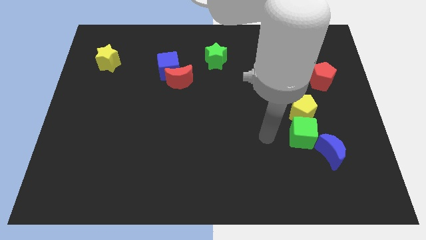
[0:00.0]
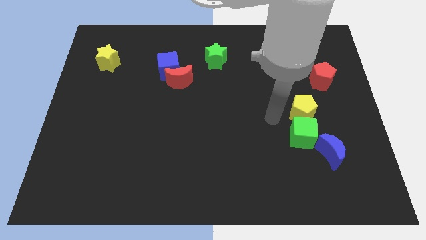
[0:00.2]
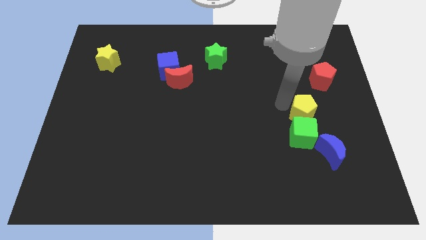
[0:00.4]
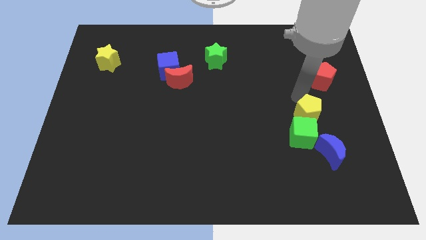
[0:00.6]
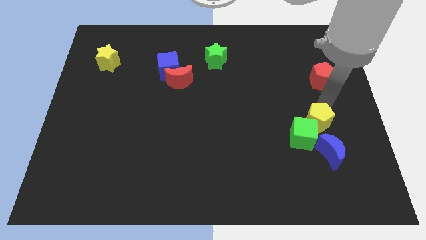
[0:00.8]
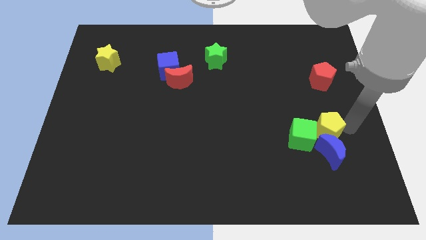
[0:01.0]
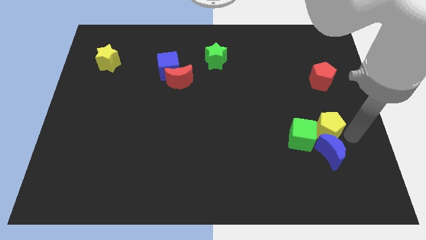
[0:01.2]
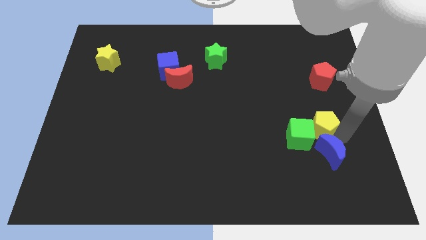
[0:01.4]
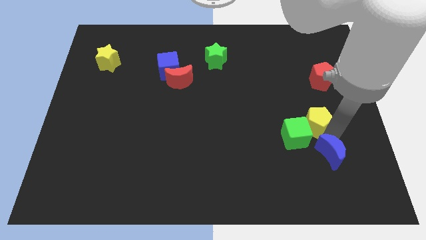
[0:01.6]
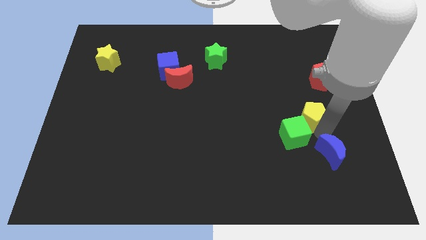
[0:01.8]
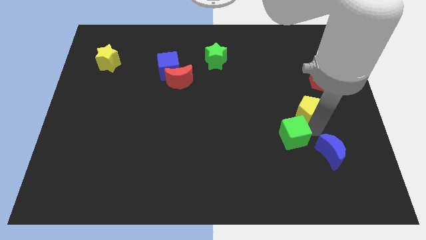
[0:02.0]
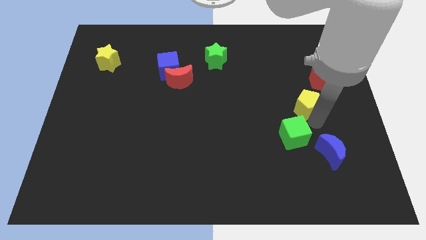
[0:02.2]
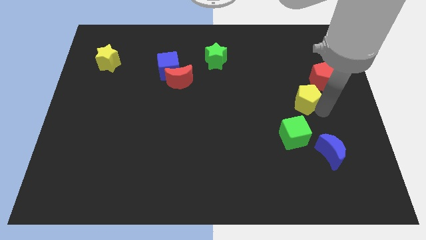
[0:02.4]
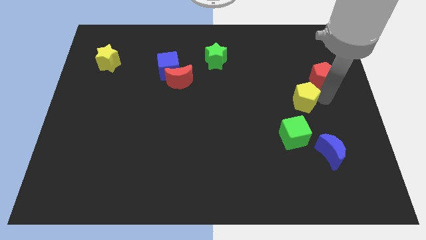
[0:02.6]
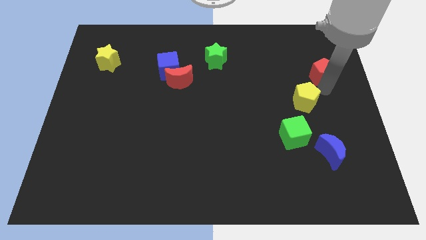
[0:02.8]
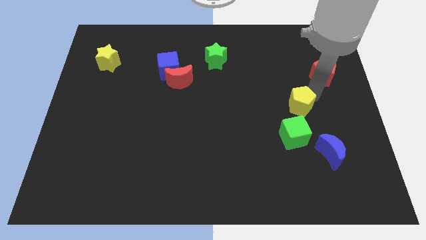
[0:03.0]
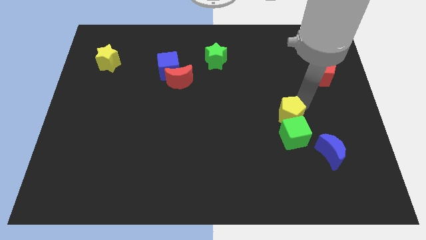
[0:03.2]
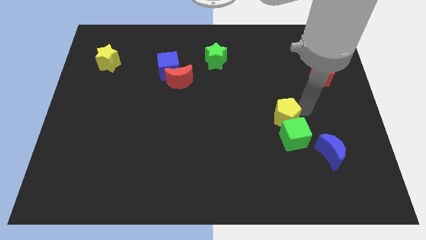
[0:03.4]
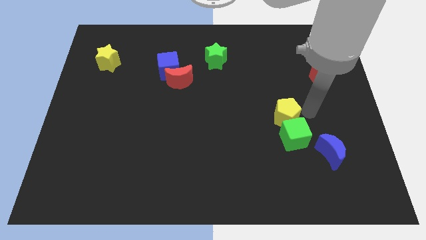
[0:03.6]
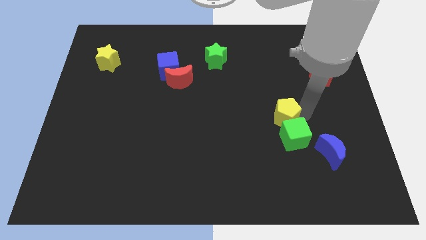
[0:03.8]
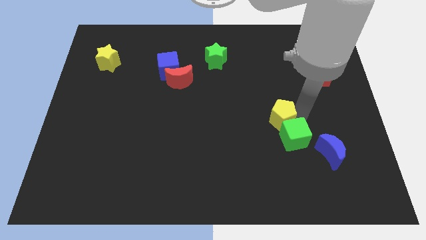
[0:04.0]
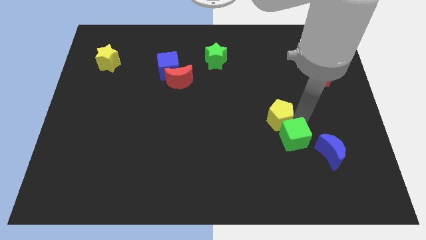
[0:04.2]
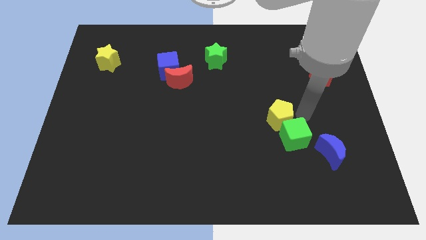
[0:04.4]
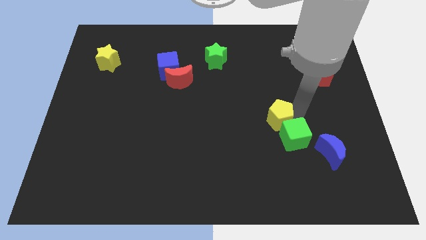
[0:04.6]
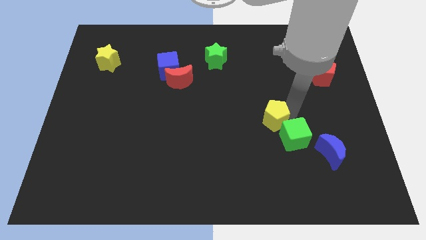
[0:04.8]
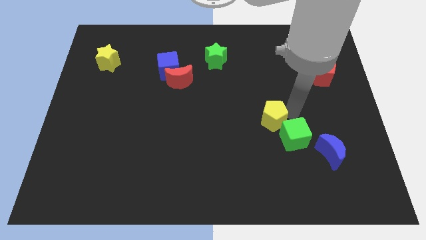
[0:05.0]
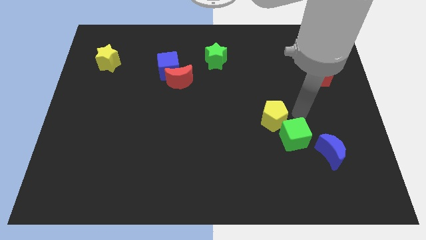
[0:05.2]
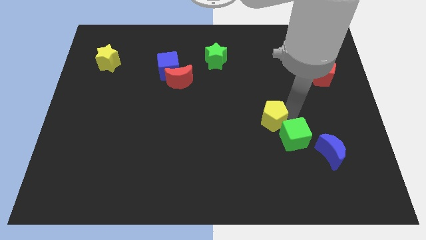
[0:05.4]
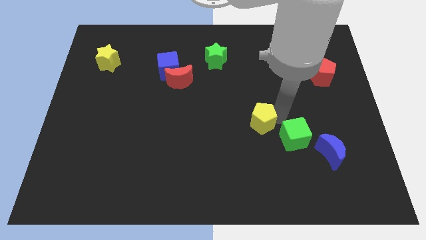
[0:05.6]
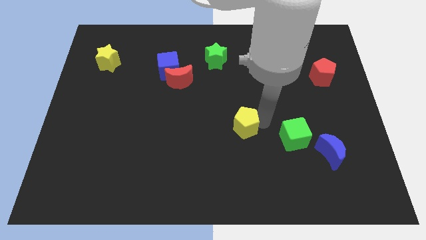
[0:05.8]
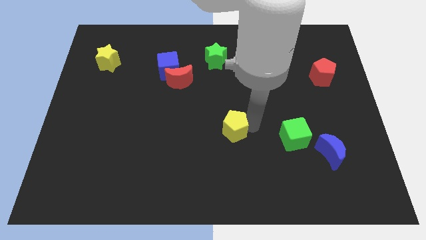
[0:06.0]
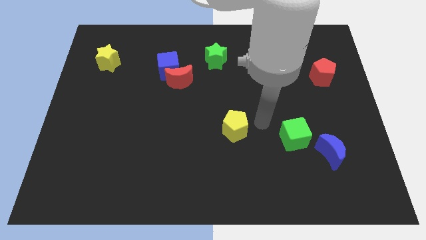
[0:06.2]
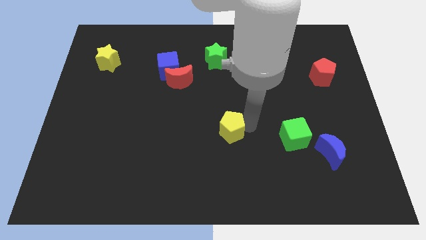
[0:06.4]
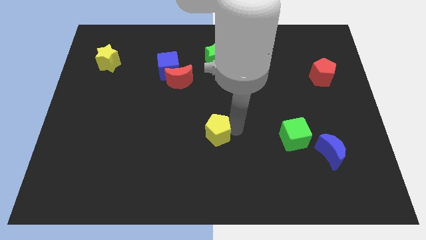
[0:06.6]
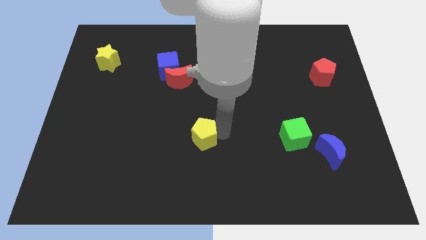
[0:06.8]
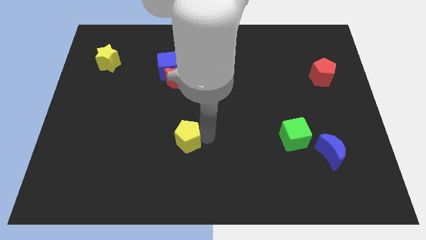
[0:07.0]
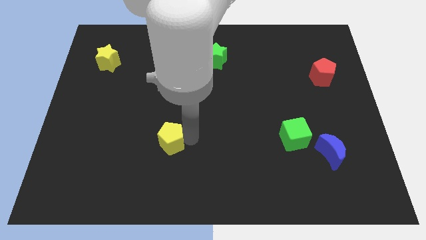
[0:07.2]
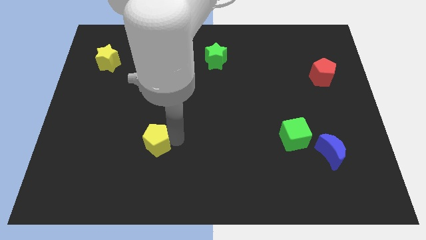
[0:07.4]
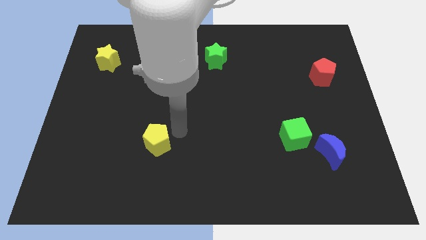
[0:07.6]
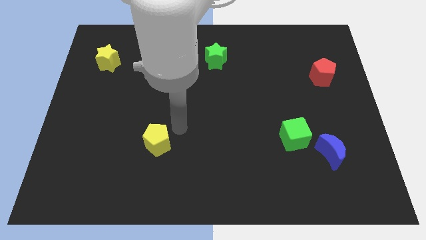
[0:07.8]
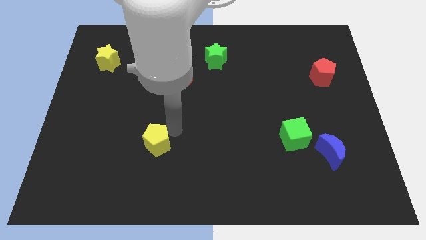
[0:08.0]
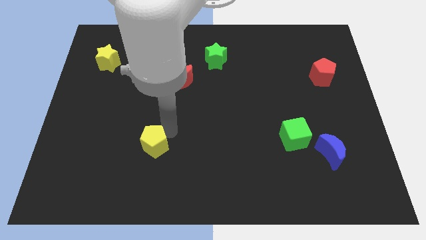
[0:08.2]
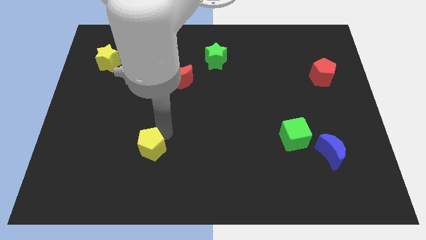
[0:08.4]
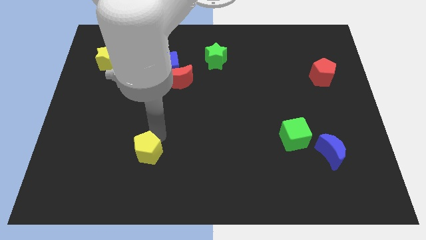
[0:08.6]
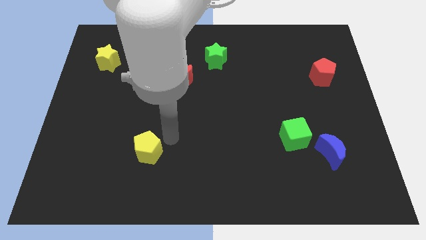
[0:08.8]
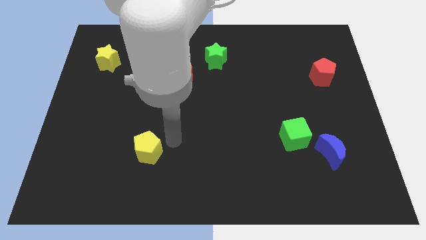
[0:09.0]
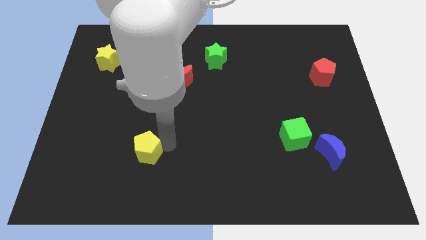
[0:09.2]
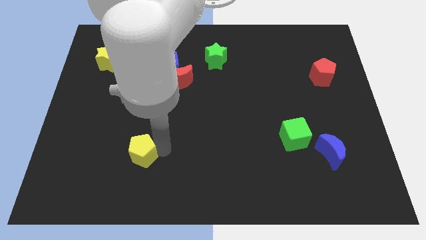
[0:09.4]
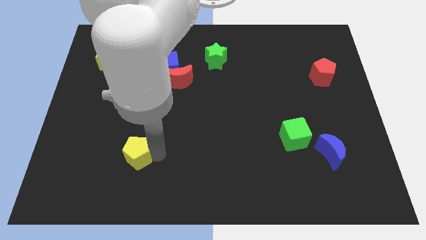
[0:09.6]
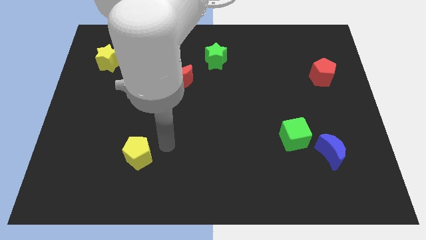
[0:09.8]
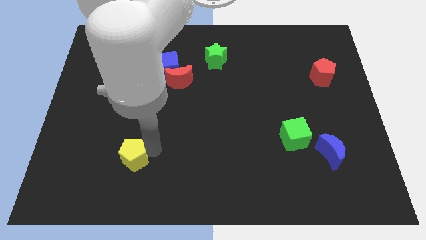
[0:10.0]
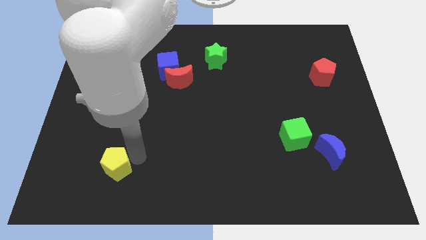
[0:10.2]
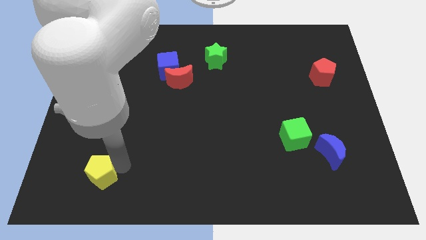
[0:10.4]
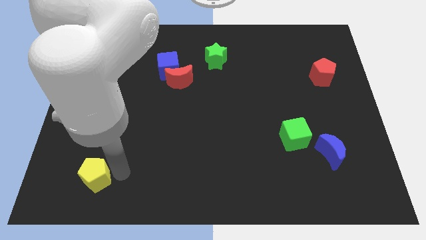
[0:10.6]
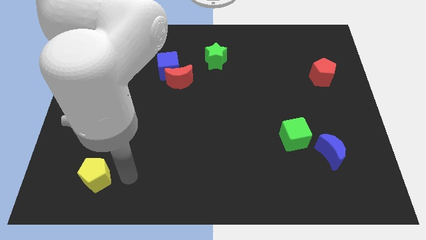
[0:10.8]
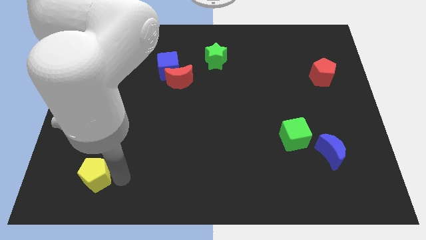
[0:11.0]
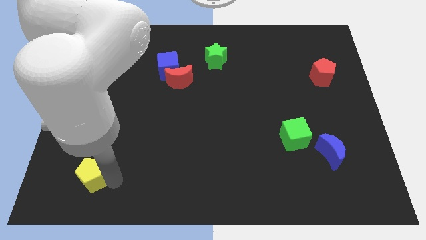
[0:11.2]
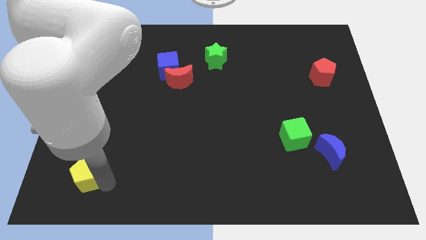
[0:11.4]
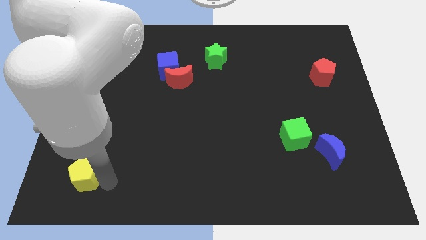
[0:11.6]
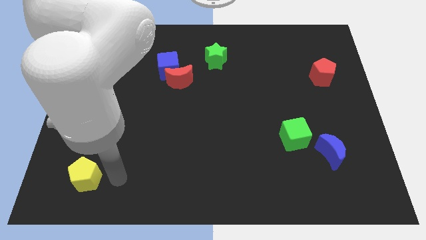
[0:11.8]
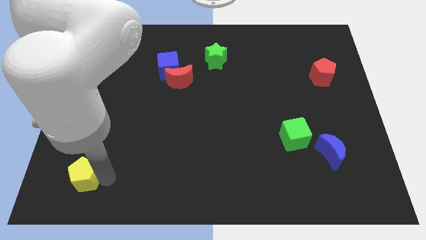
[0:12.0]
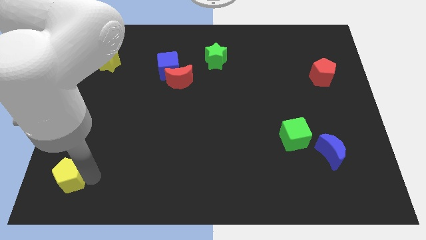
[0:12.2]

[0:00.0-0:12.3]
push the yellow pentagon to the bottom left corner

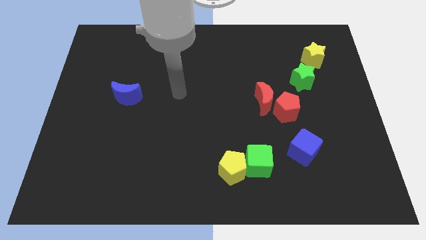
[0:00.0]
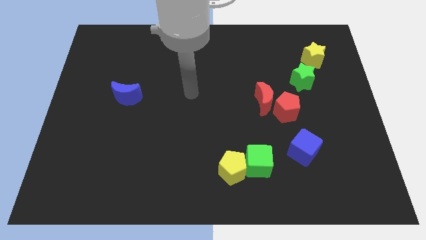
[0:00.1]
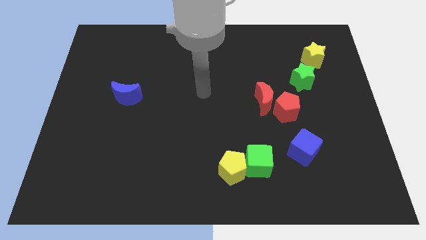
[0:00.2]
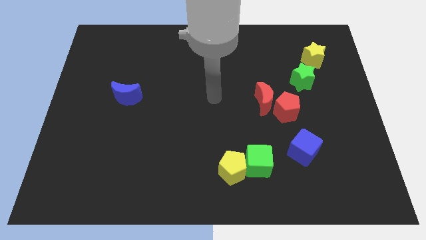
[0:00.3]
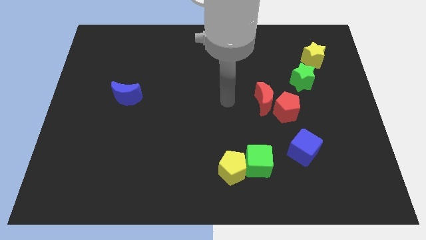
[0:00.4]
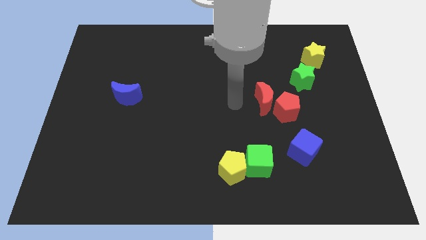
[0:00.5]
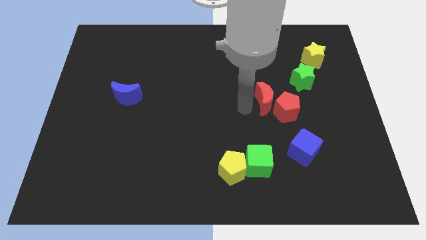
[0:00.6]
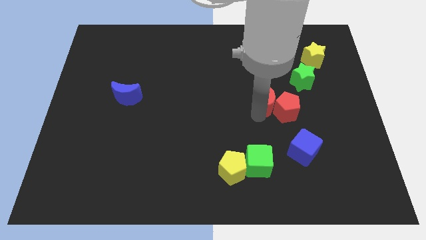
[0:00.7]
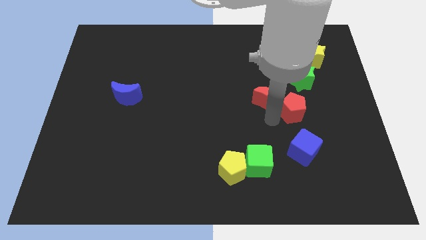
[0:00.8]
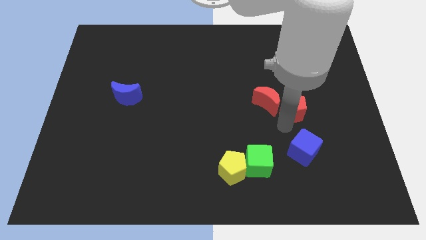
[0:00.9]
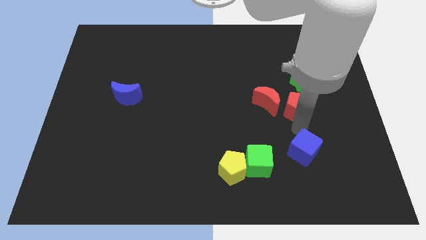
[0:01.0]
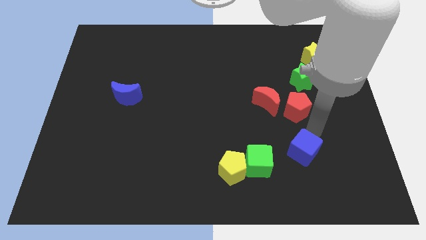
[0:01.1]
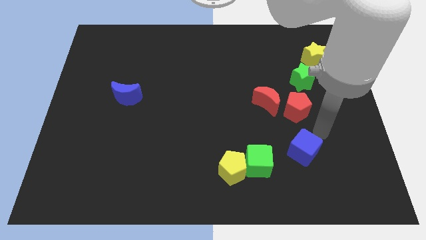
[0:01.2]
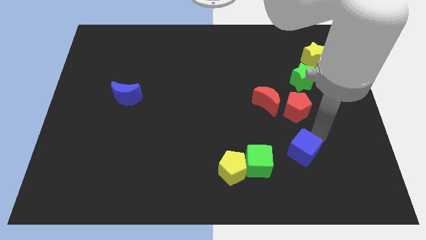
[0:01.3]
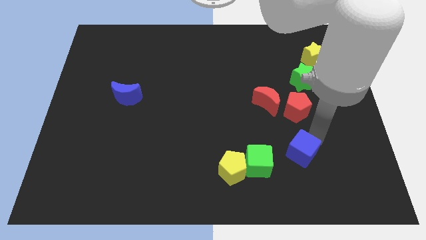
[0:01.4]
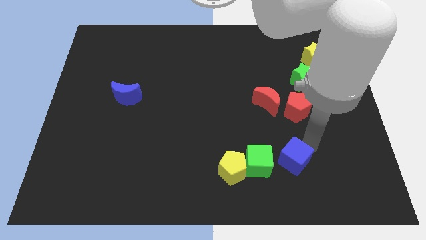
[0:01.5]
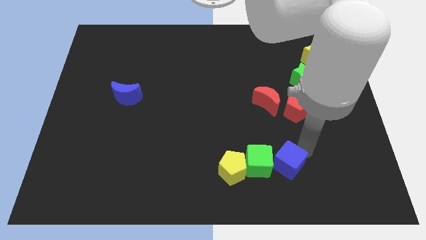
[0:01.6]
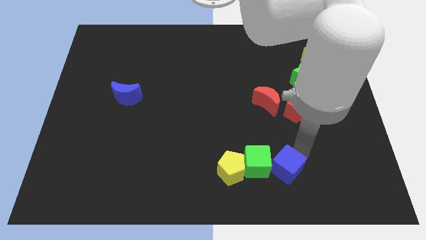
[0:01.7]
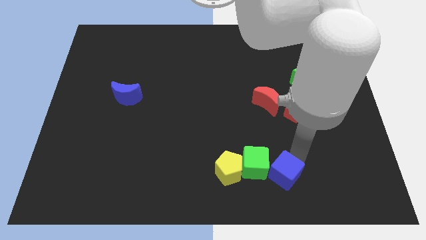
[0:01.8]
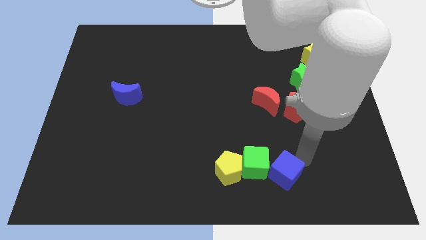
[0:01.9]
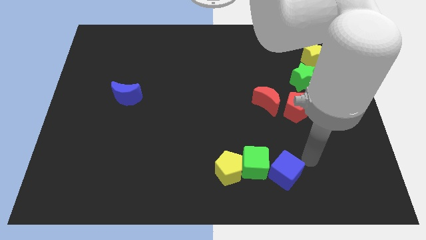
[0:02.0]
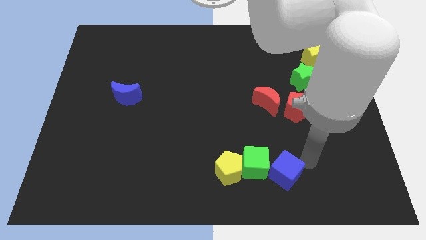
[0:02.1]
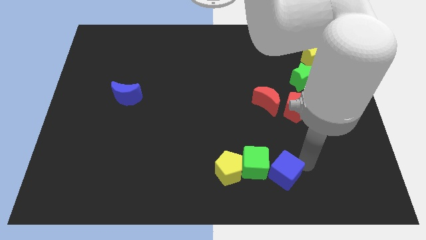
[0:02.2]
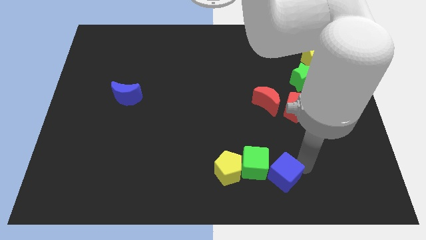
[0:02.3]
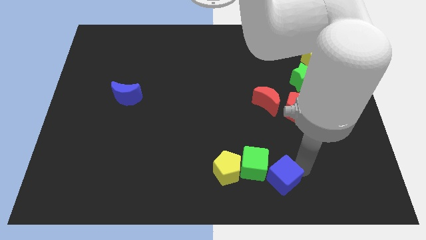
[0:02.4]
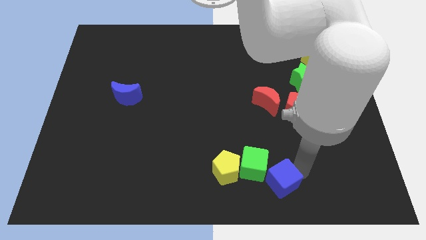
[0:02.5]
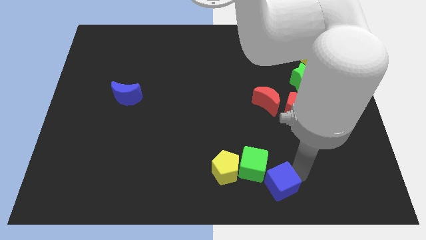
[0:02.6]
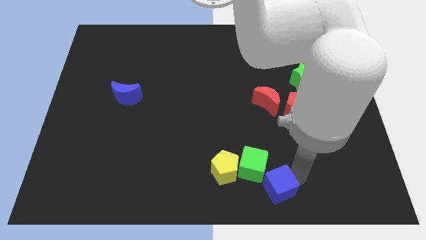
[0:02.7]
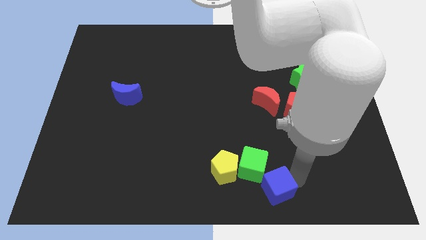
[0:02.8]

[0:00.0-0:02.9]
move the blue cube to the bottom side
